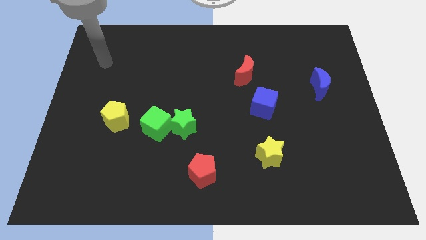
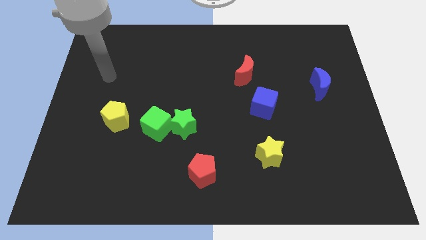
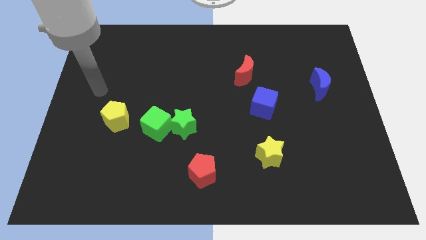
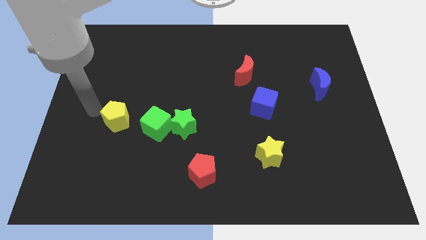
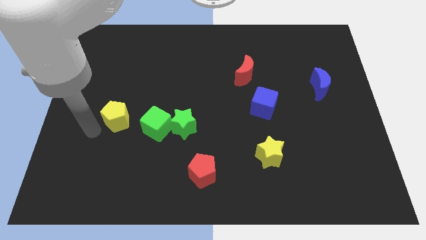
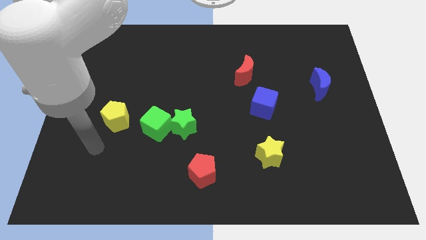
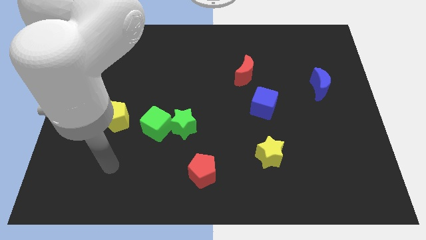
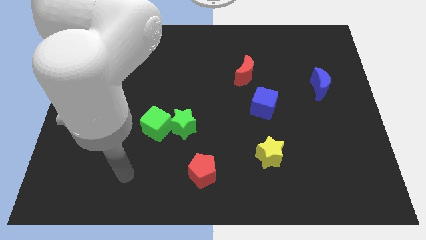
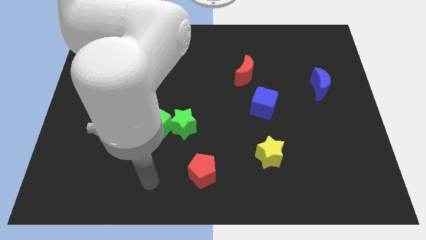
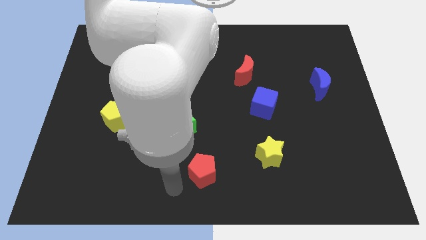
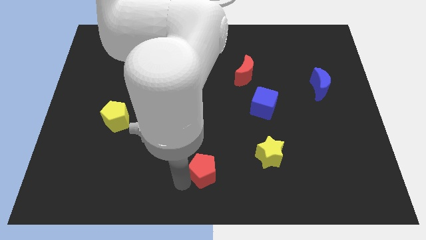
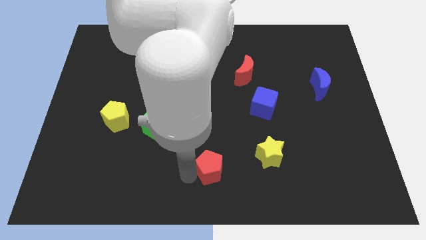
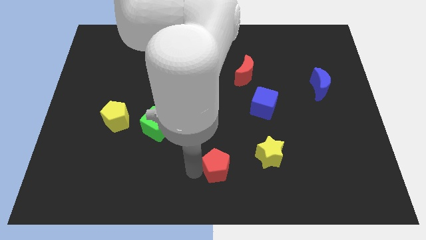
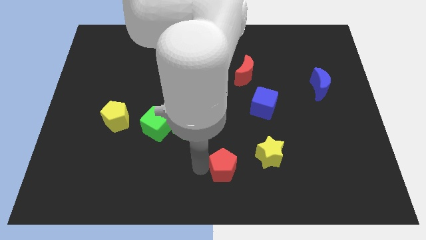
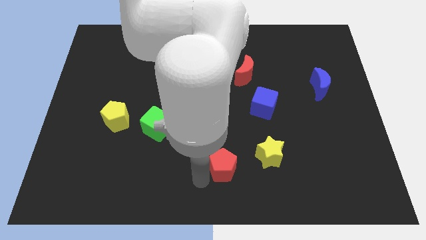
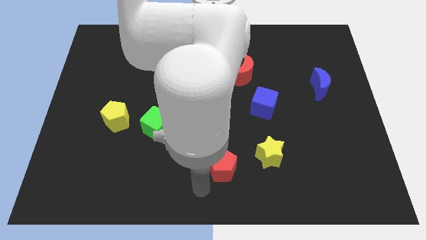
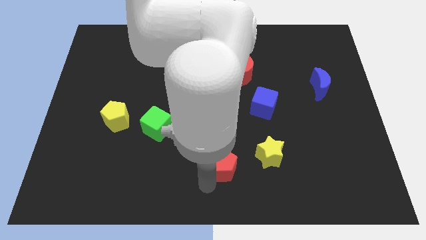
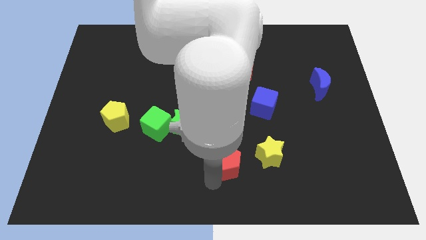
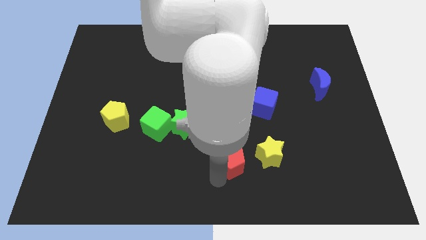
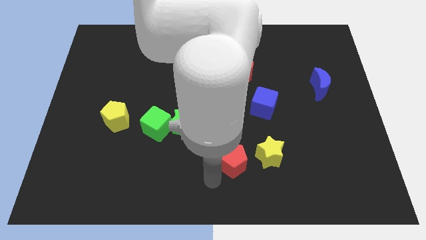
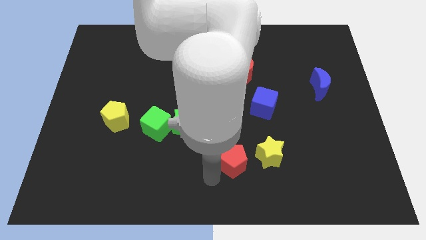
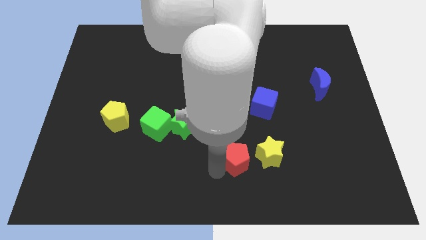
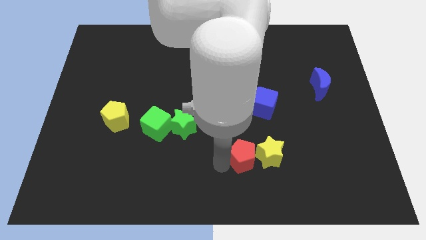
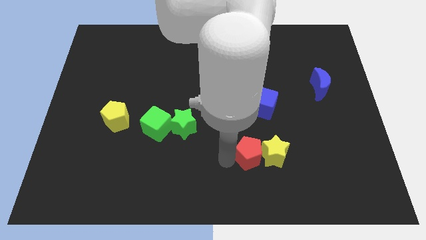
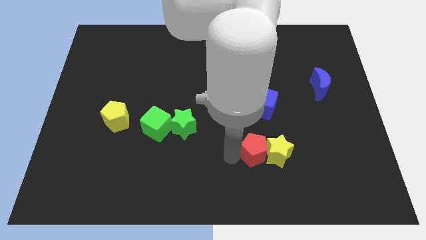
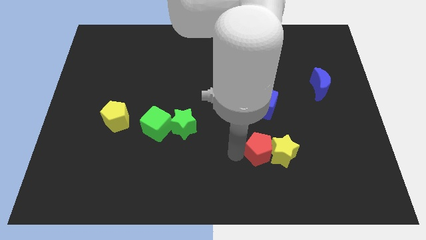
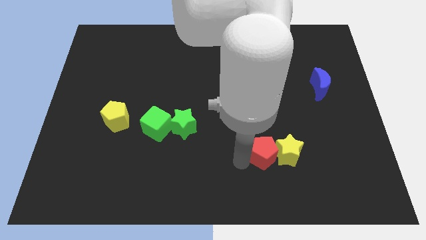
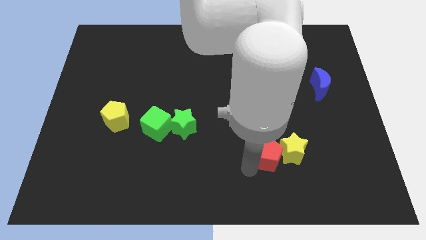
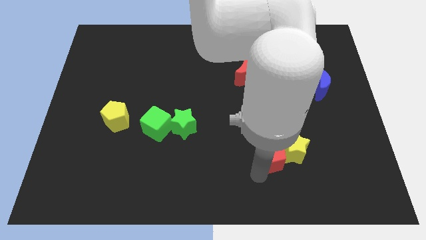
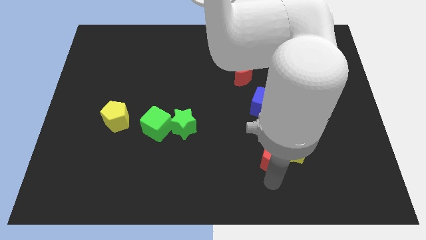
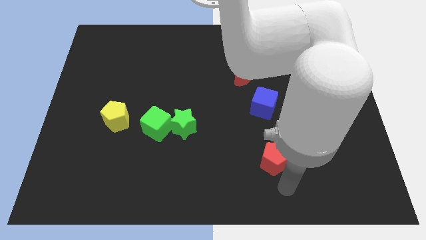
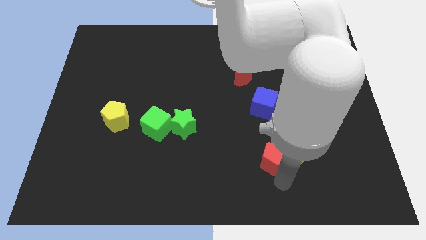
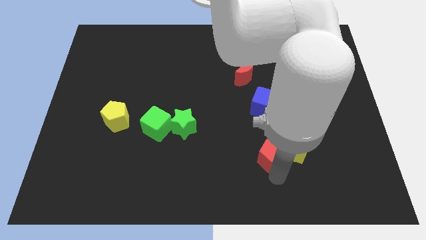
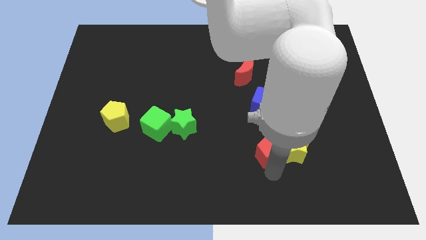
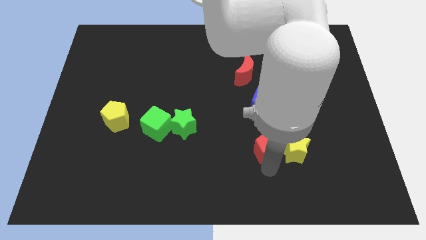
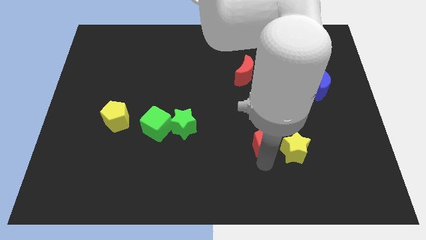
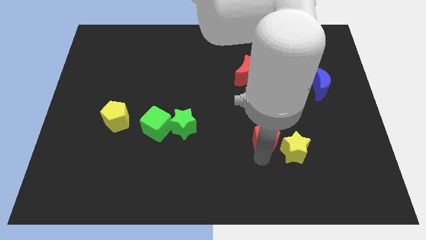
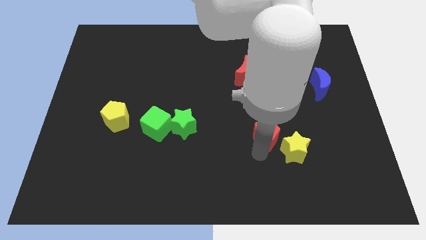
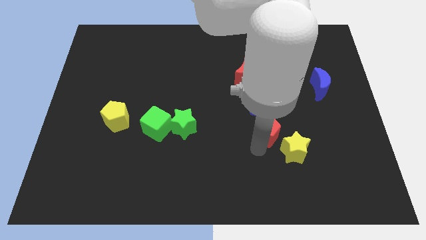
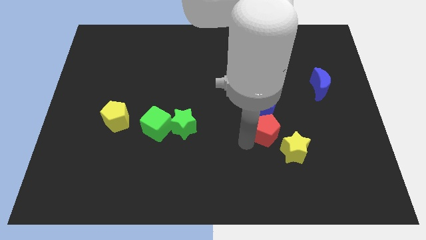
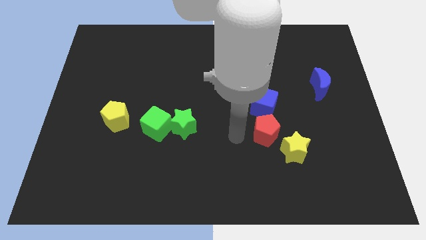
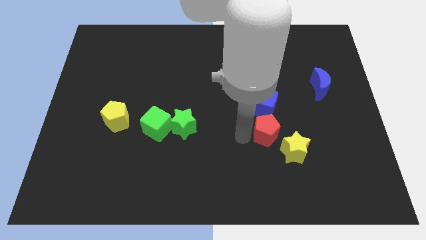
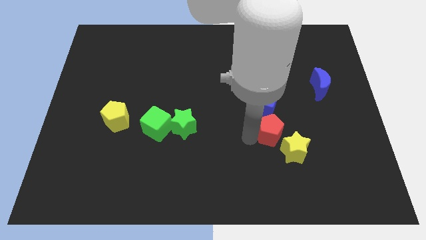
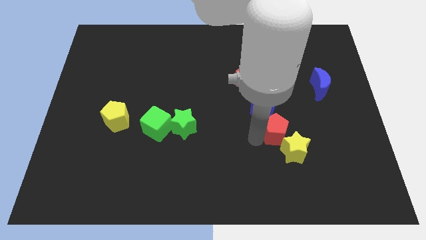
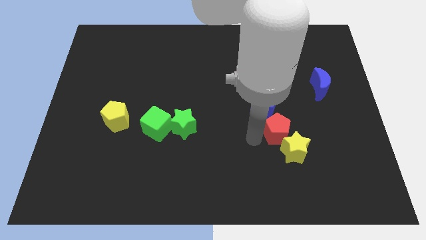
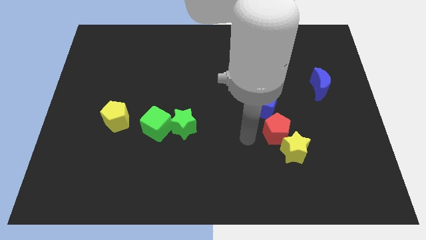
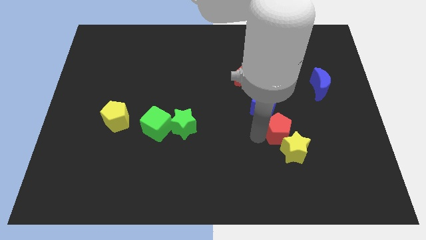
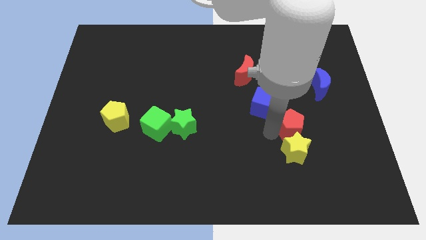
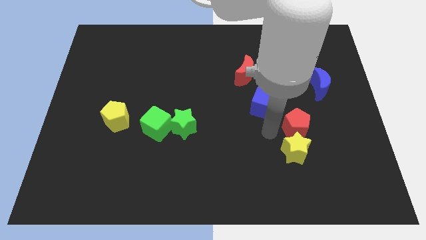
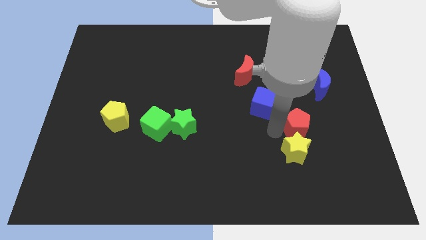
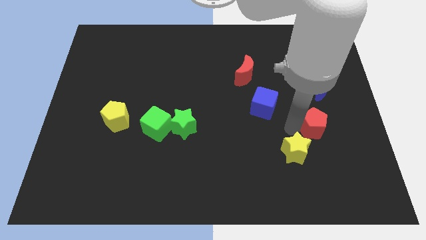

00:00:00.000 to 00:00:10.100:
move the red pentagon to the bottom of the blue moon

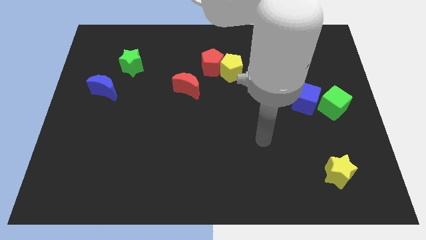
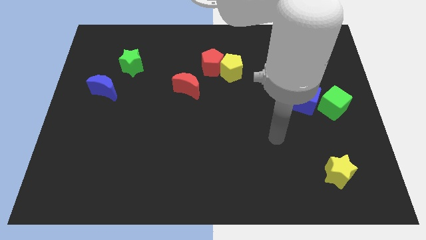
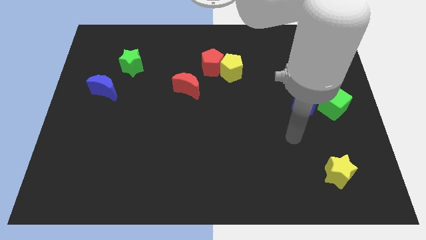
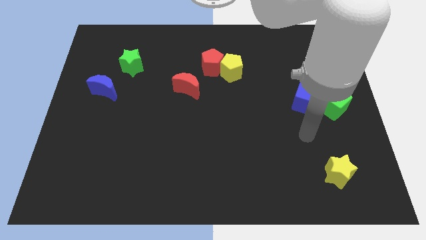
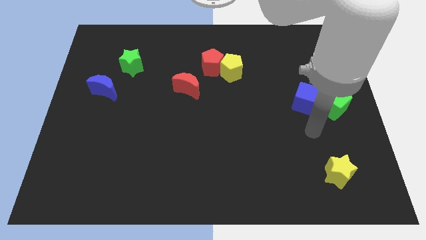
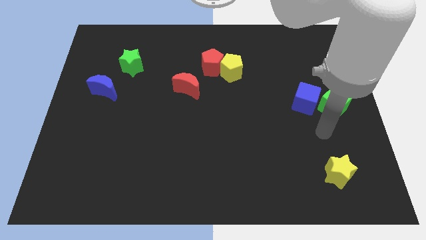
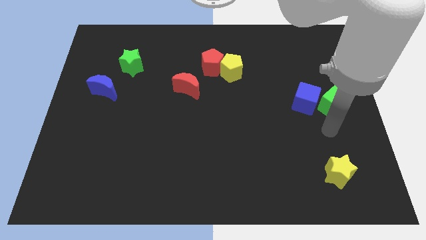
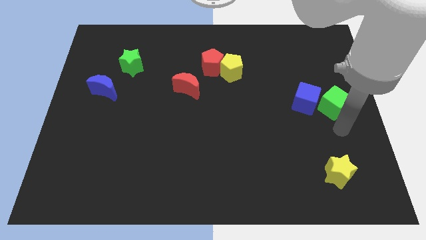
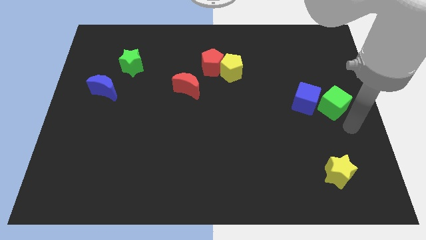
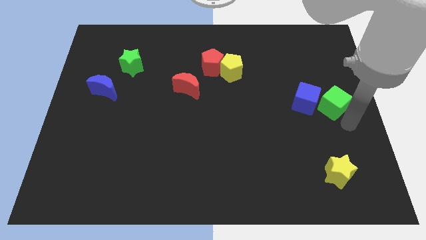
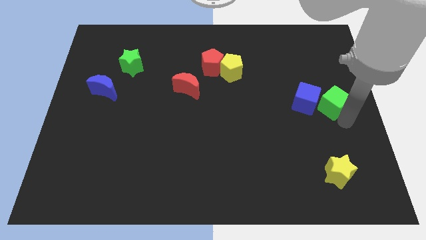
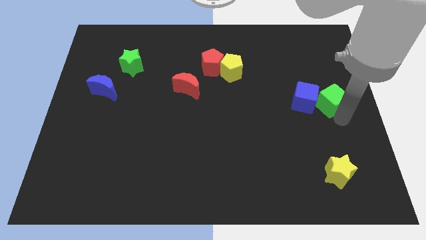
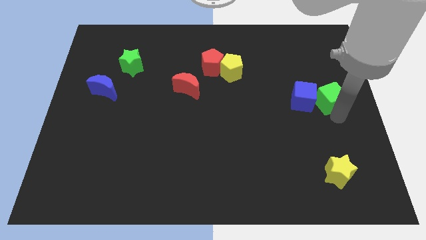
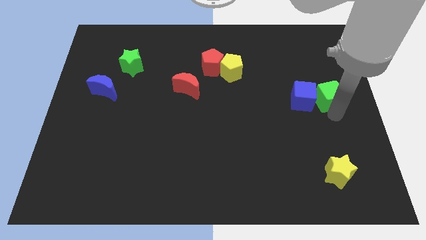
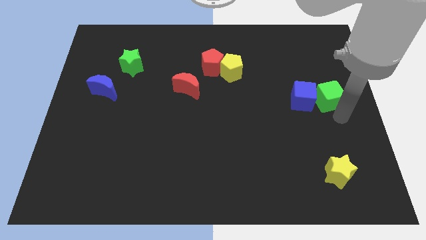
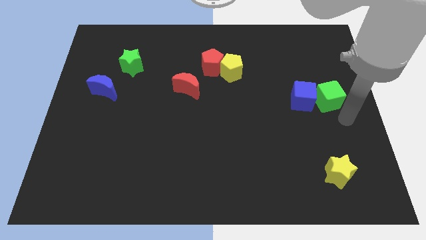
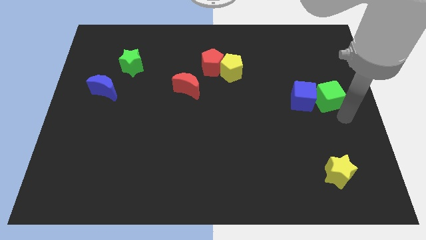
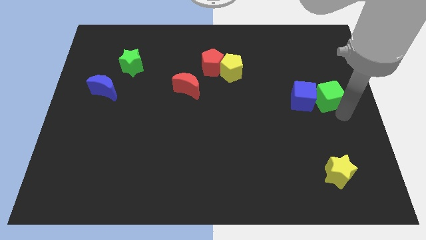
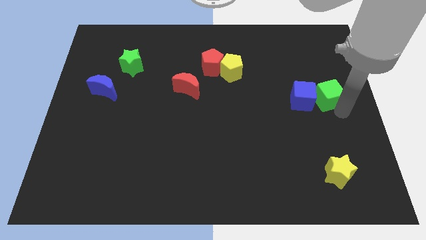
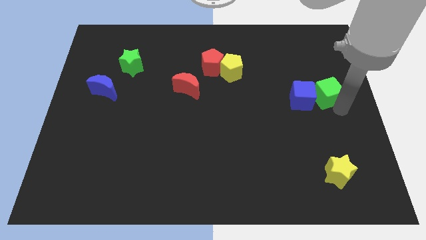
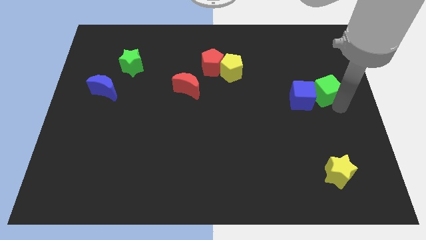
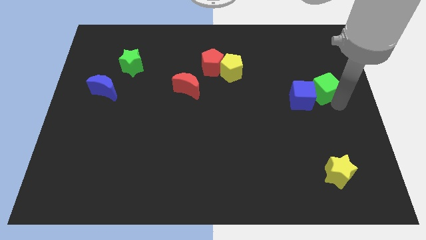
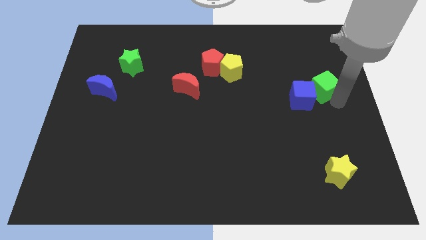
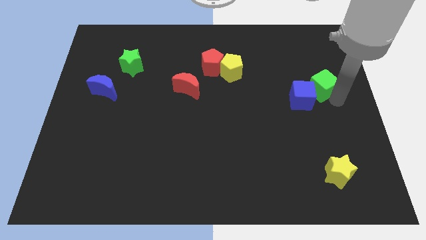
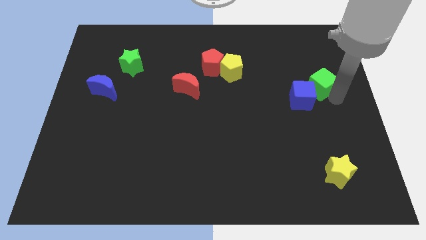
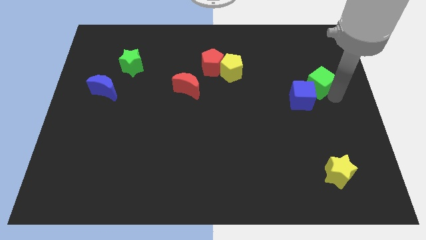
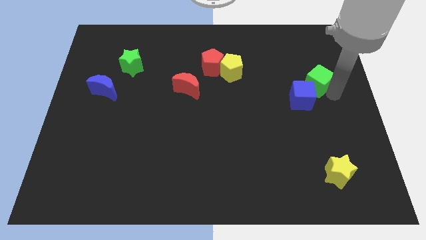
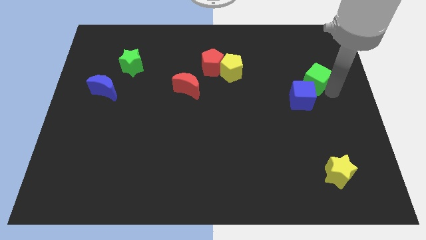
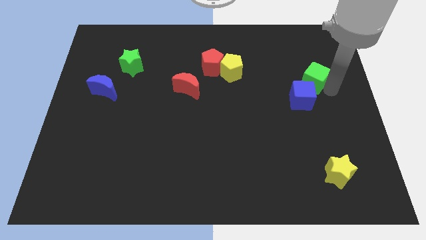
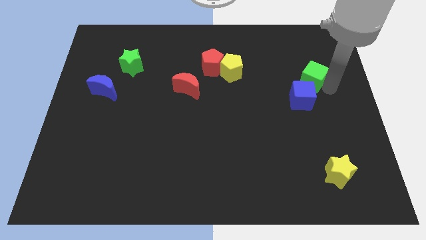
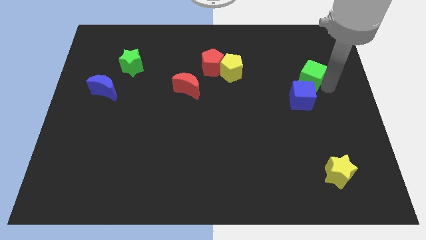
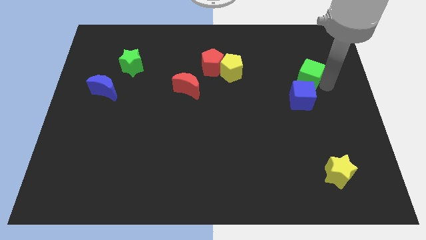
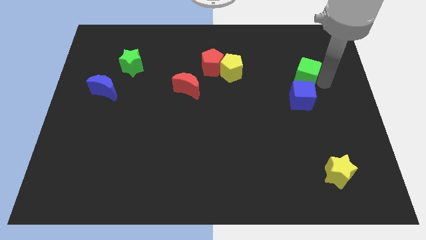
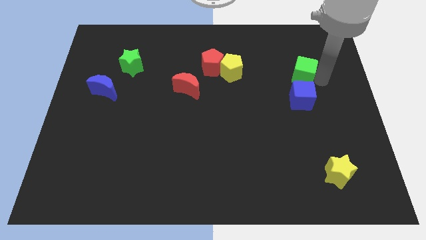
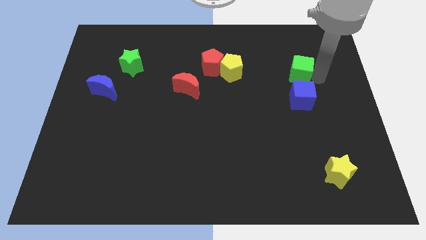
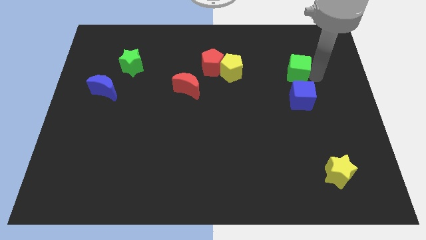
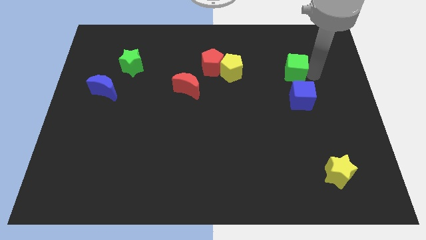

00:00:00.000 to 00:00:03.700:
put the green cube right of the yellow pentagon
